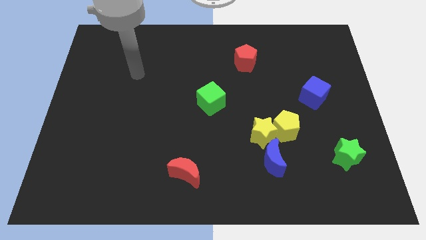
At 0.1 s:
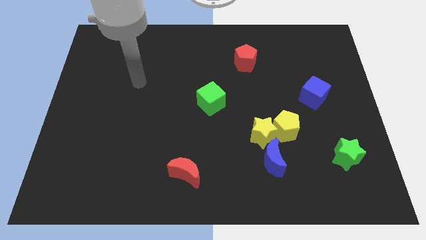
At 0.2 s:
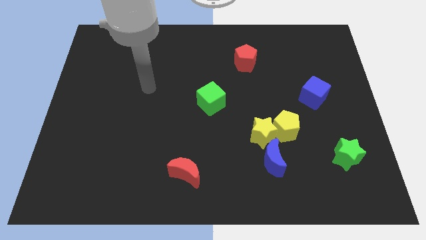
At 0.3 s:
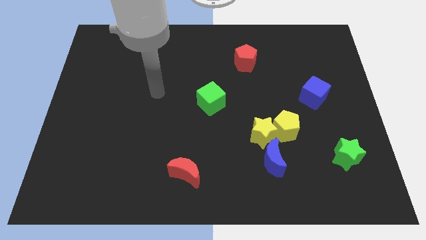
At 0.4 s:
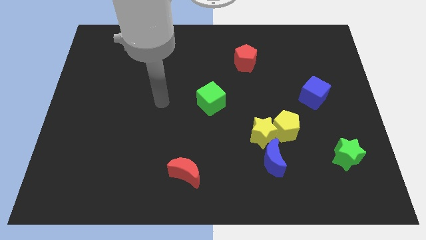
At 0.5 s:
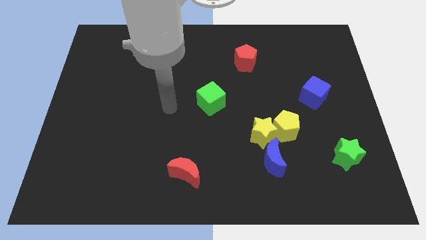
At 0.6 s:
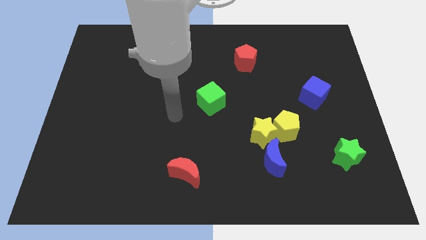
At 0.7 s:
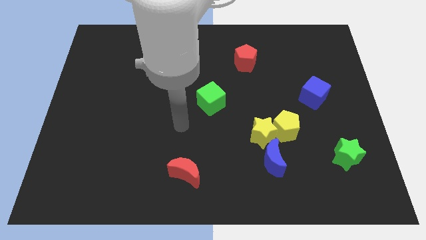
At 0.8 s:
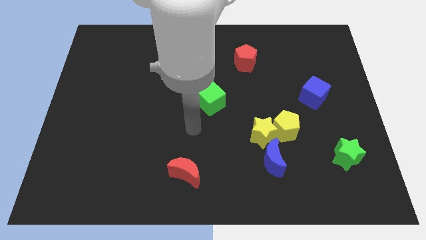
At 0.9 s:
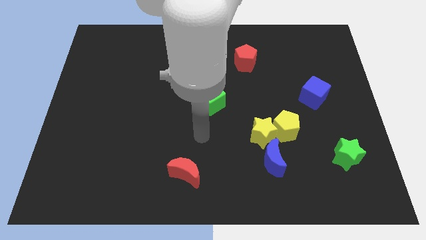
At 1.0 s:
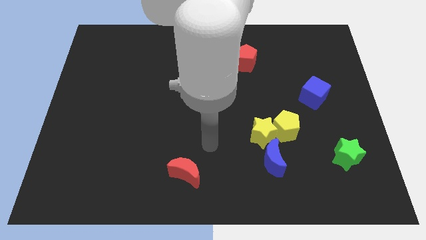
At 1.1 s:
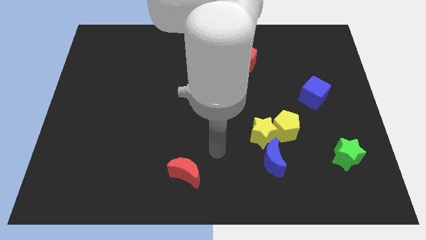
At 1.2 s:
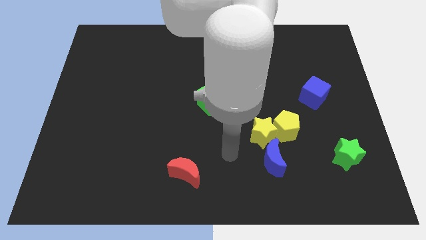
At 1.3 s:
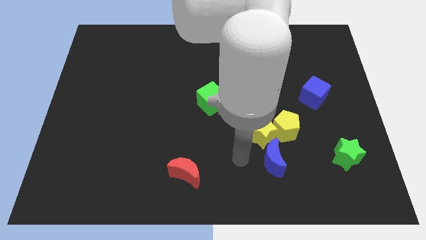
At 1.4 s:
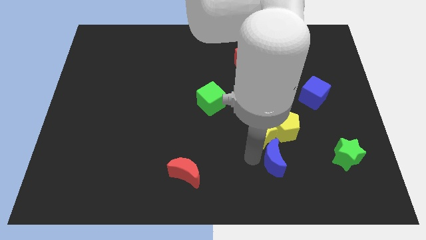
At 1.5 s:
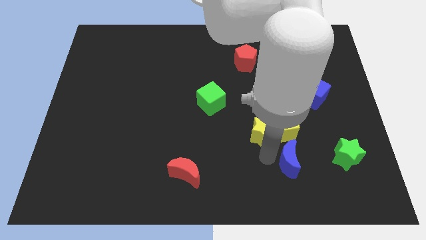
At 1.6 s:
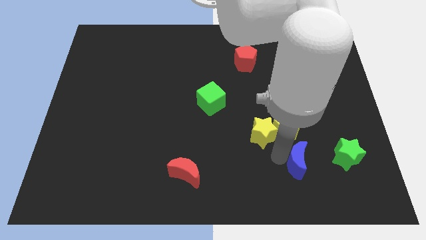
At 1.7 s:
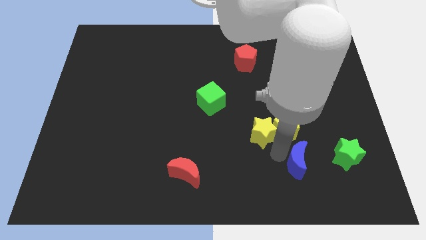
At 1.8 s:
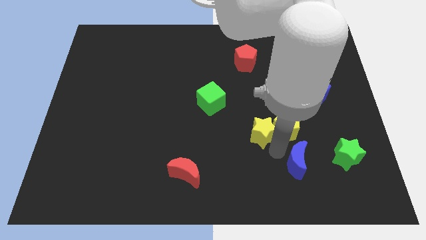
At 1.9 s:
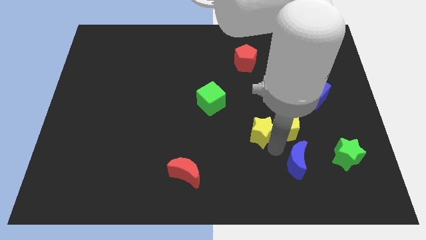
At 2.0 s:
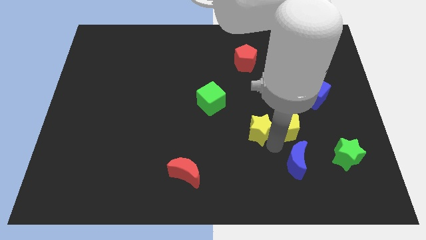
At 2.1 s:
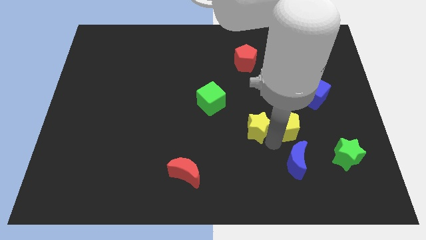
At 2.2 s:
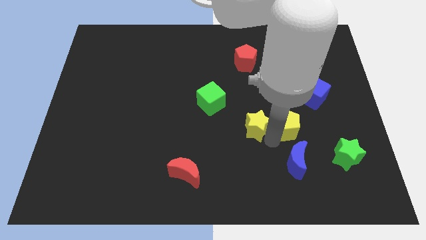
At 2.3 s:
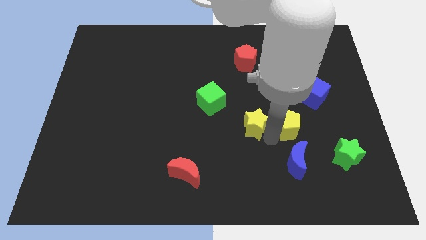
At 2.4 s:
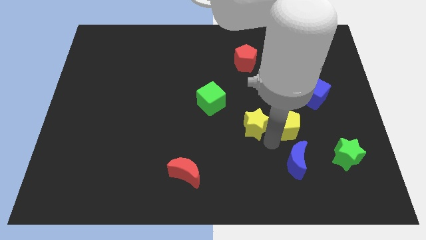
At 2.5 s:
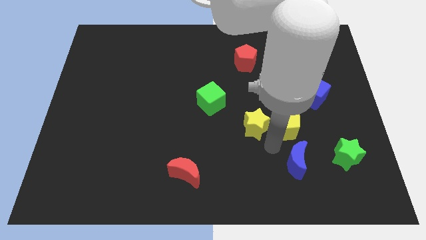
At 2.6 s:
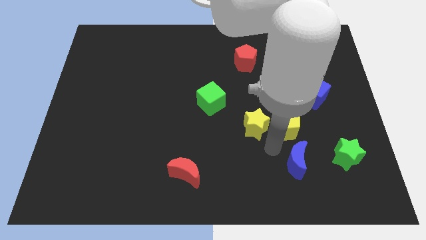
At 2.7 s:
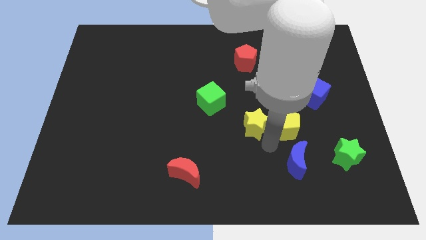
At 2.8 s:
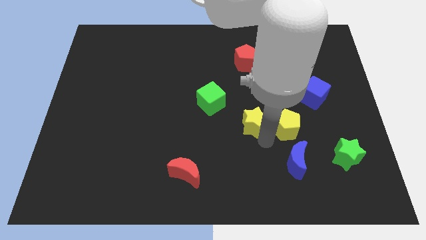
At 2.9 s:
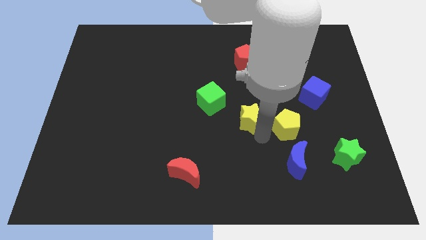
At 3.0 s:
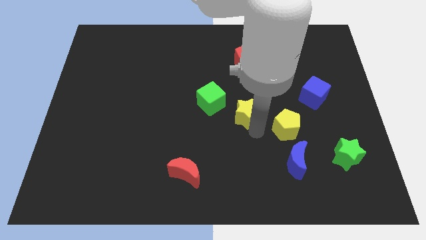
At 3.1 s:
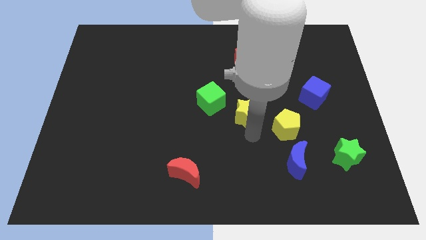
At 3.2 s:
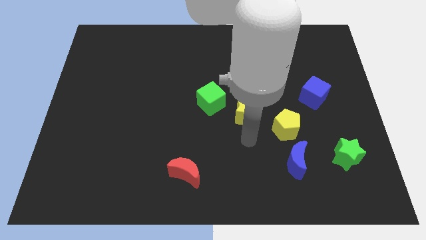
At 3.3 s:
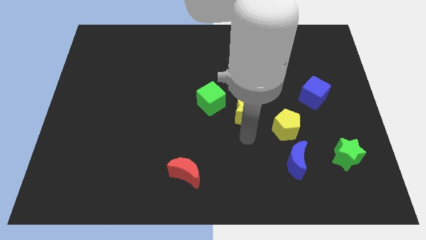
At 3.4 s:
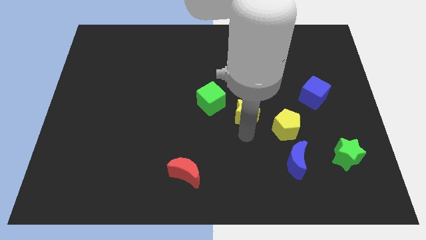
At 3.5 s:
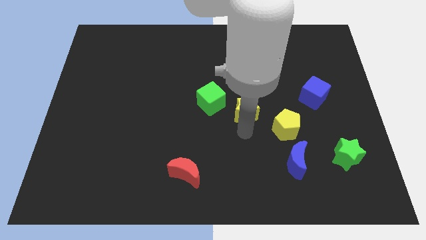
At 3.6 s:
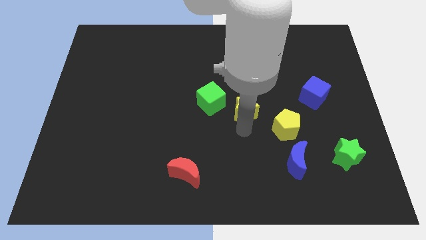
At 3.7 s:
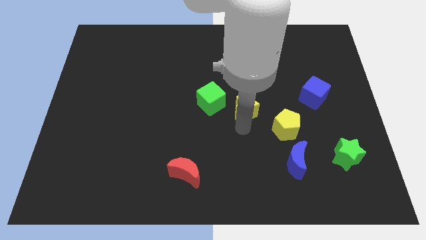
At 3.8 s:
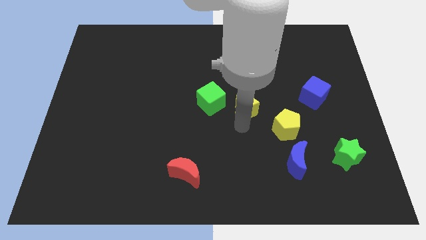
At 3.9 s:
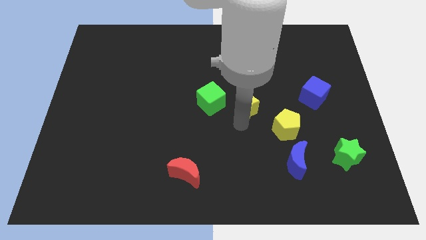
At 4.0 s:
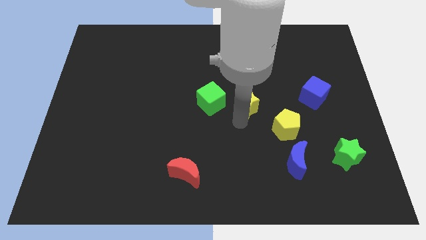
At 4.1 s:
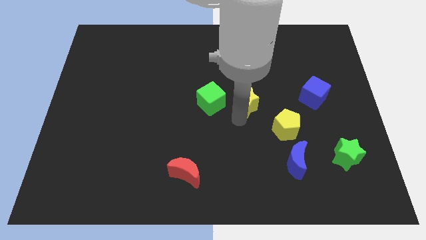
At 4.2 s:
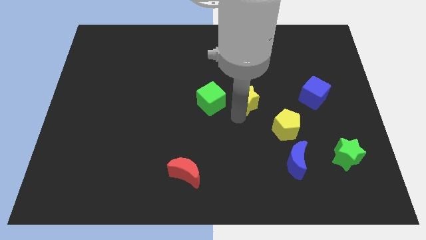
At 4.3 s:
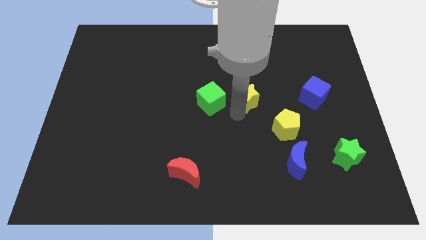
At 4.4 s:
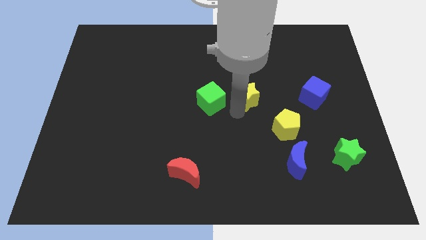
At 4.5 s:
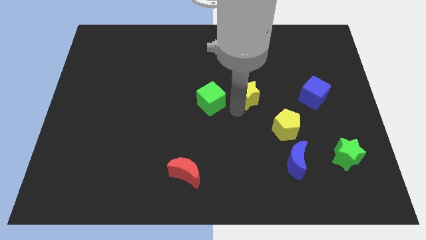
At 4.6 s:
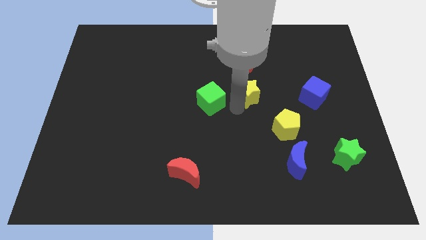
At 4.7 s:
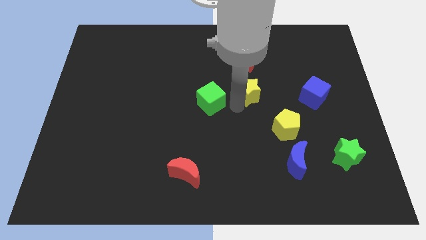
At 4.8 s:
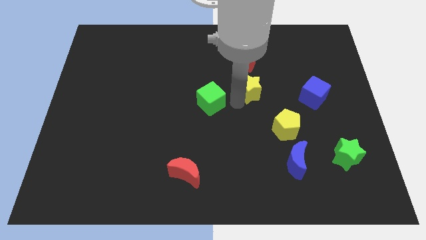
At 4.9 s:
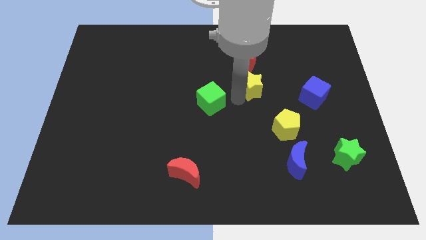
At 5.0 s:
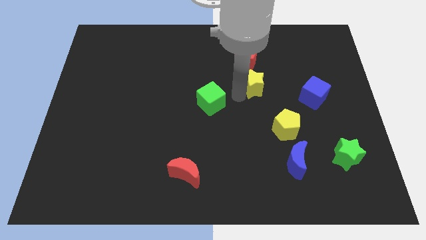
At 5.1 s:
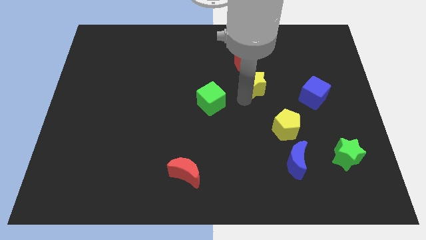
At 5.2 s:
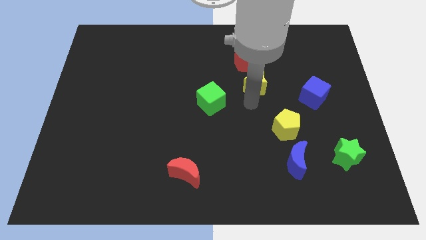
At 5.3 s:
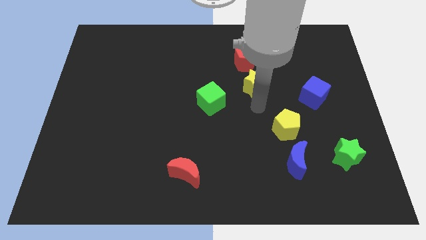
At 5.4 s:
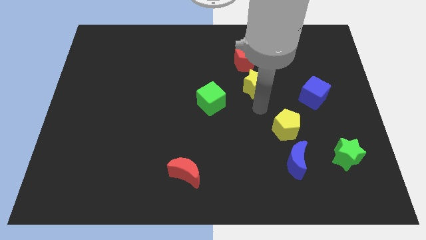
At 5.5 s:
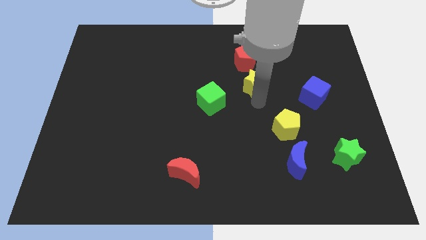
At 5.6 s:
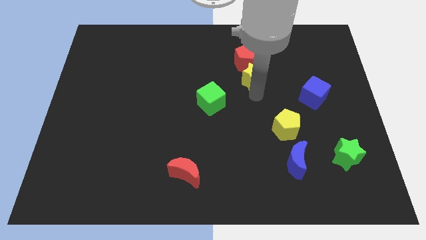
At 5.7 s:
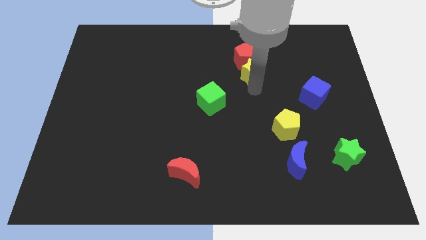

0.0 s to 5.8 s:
move the yellow star to the red pentagon

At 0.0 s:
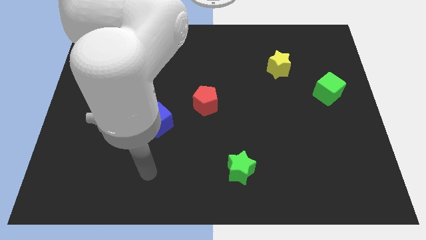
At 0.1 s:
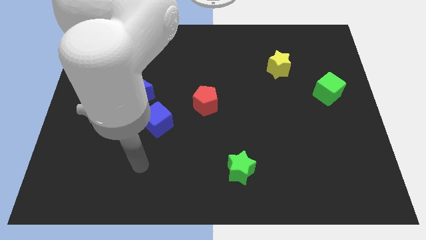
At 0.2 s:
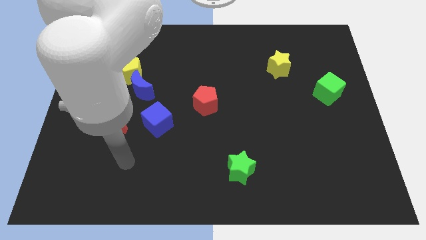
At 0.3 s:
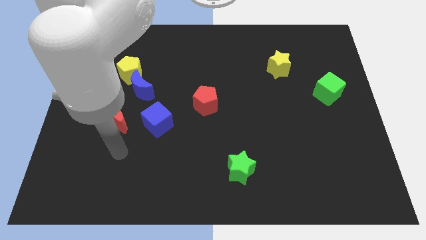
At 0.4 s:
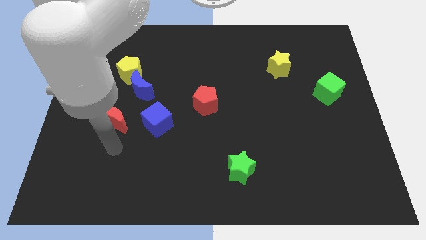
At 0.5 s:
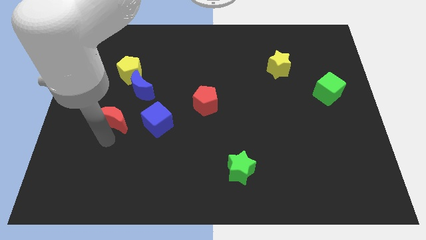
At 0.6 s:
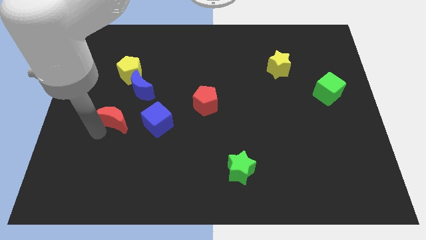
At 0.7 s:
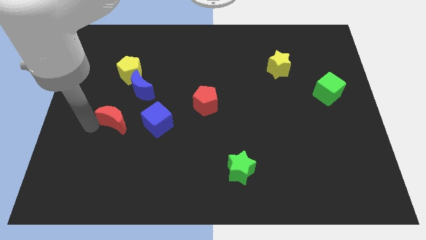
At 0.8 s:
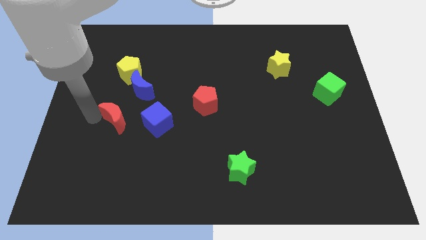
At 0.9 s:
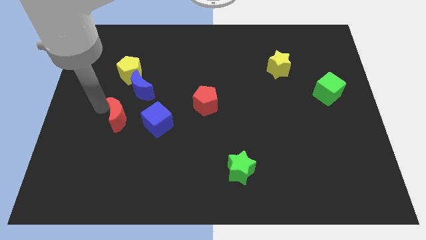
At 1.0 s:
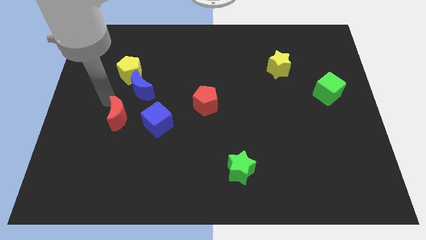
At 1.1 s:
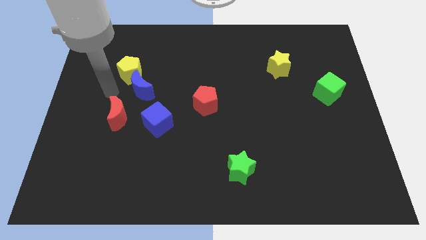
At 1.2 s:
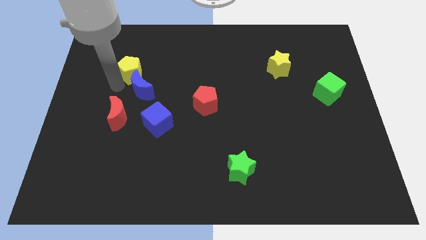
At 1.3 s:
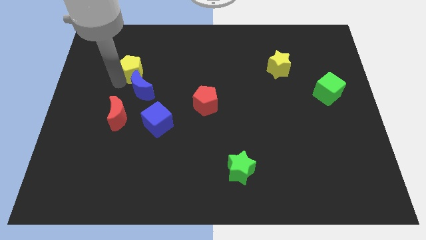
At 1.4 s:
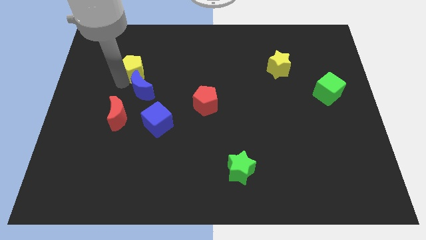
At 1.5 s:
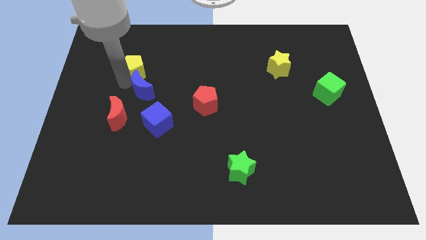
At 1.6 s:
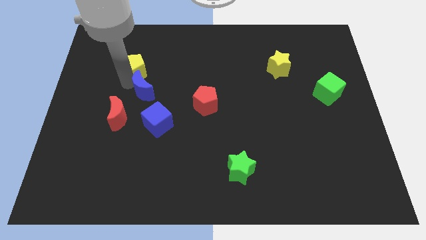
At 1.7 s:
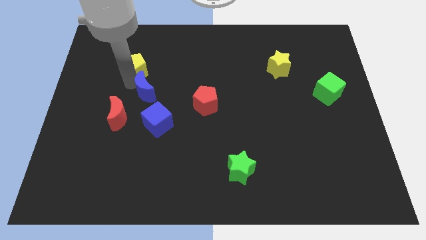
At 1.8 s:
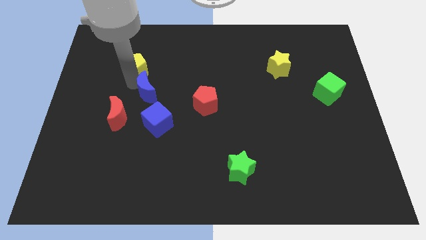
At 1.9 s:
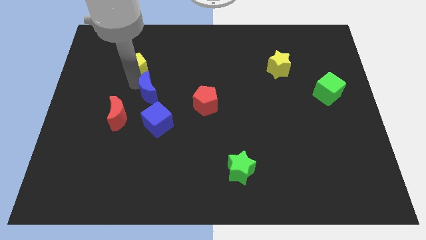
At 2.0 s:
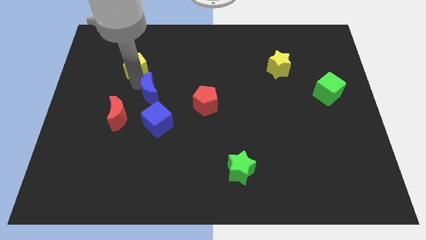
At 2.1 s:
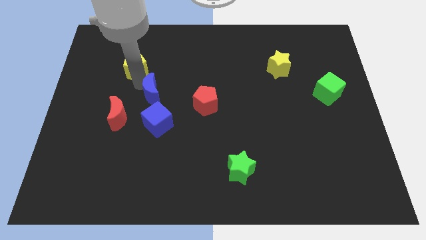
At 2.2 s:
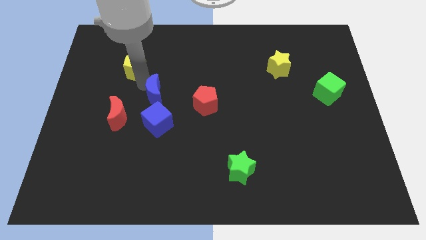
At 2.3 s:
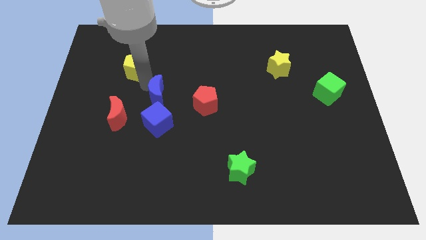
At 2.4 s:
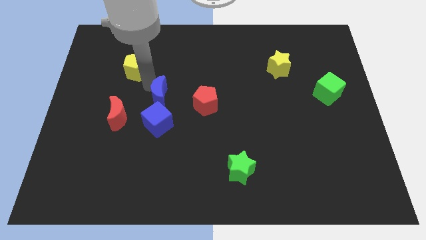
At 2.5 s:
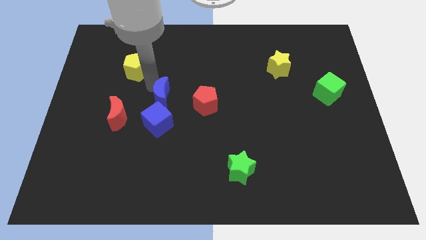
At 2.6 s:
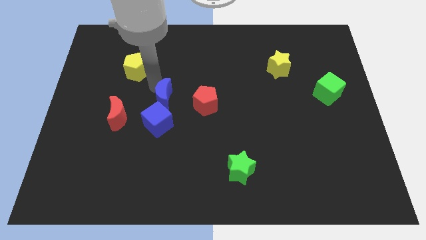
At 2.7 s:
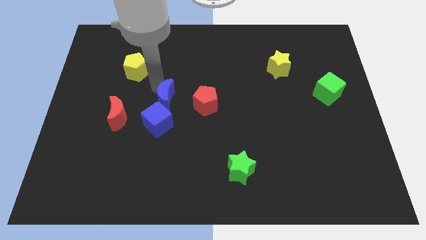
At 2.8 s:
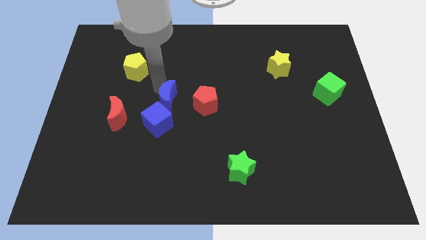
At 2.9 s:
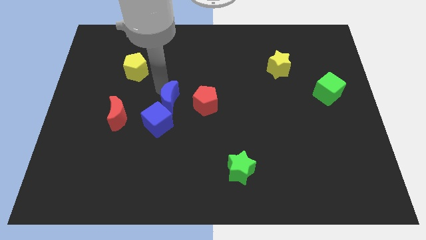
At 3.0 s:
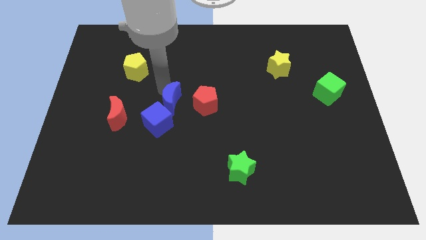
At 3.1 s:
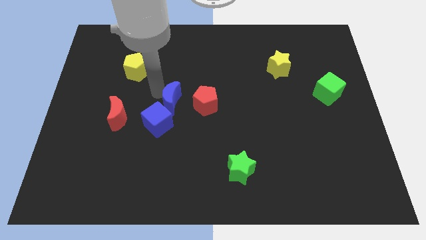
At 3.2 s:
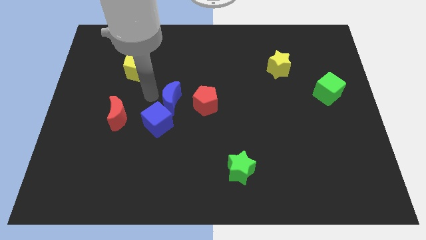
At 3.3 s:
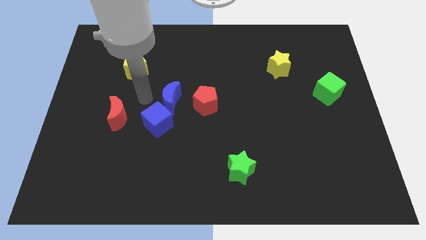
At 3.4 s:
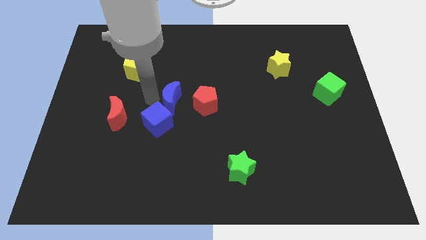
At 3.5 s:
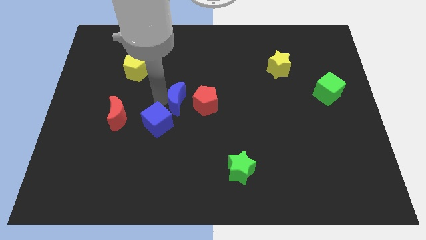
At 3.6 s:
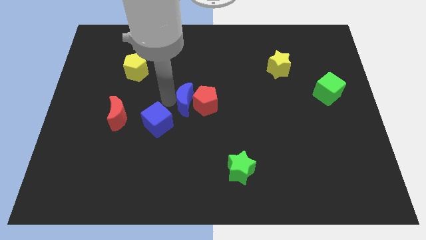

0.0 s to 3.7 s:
slide the blue moon next to the red pentagon
